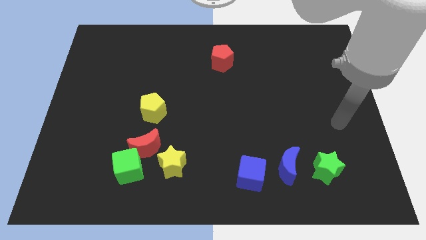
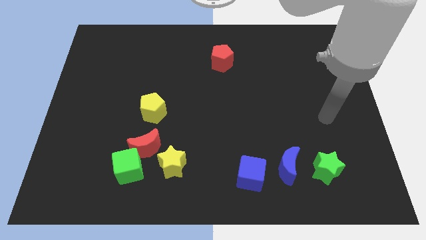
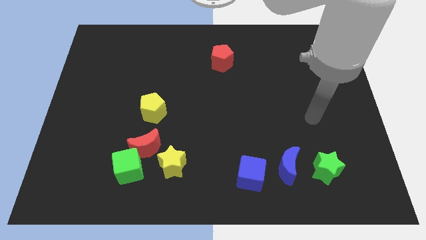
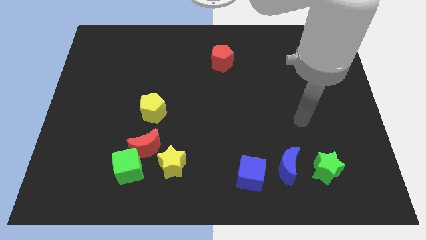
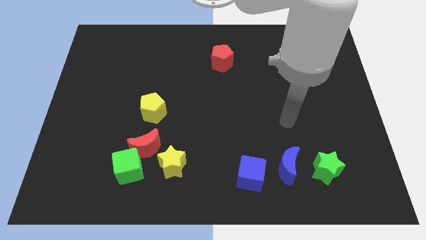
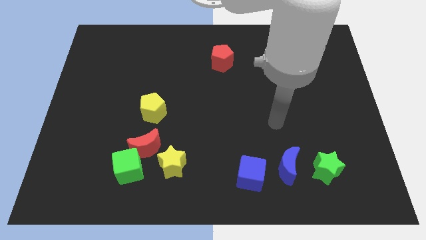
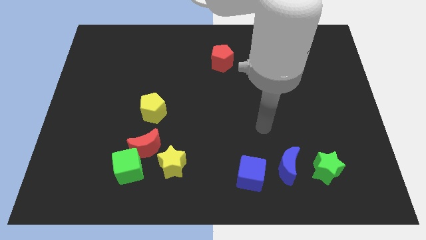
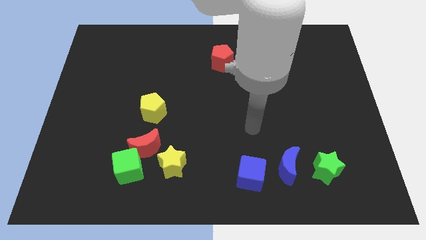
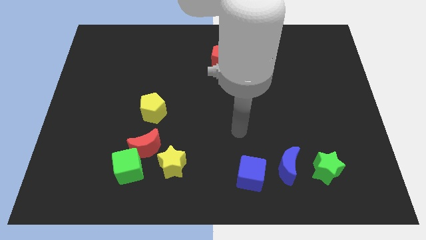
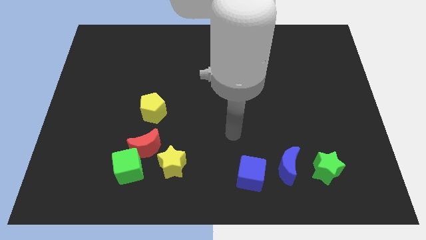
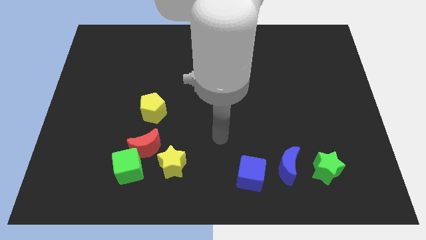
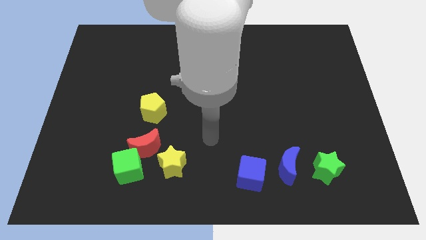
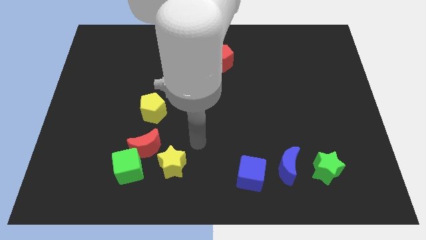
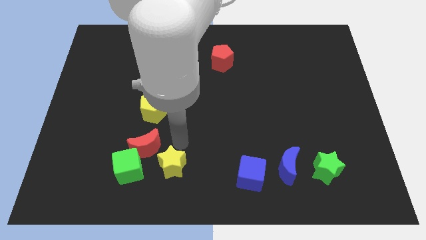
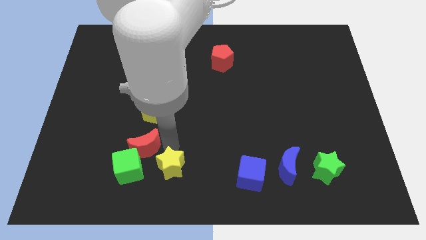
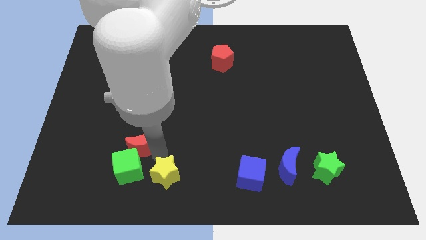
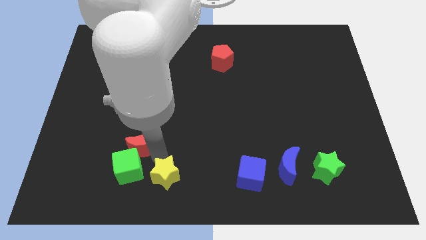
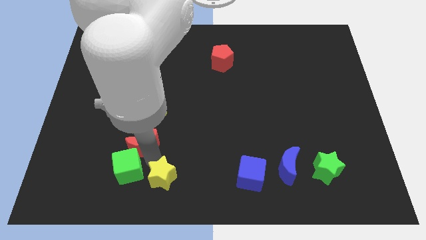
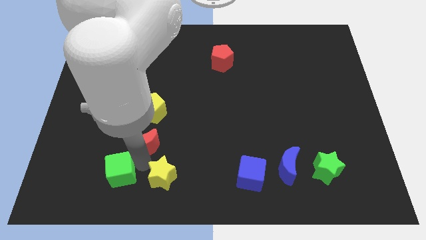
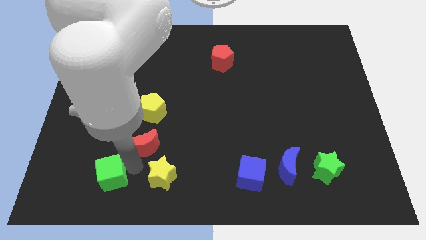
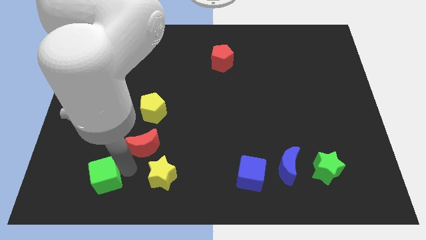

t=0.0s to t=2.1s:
separate the green cube from the red moon and yellow star

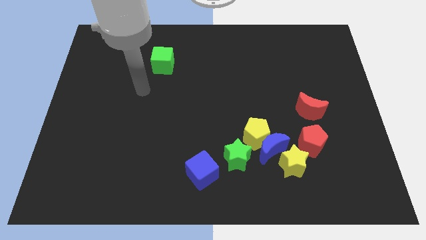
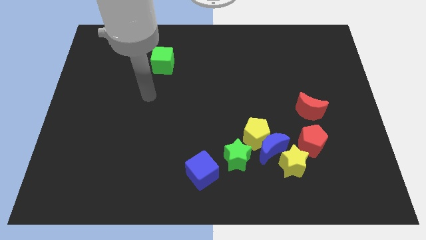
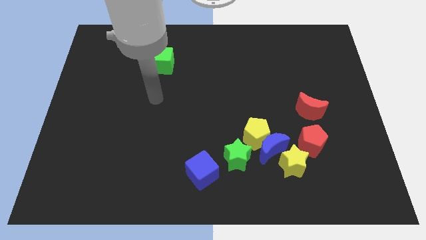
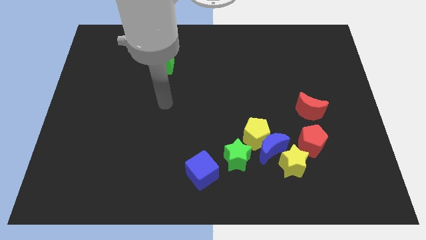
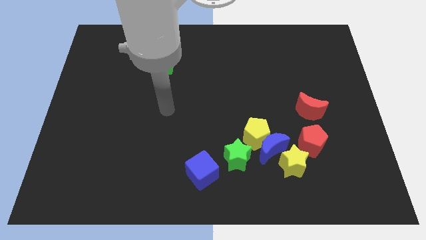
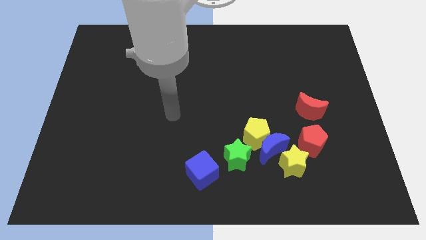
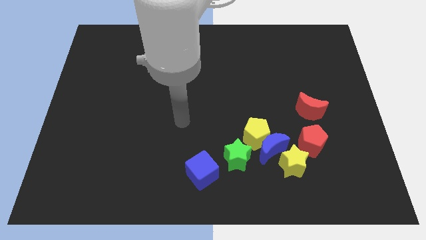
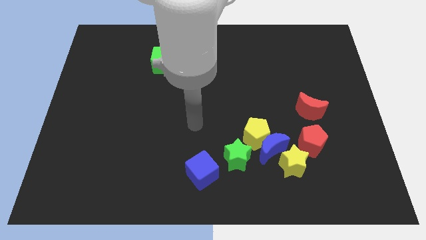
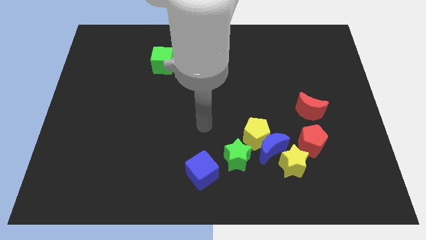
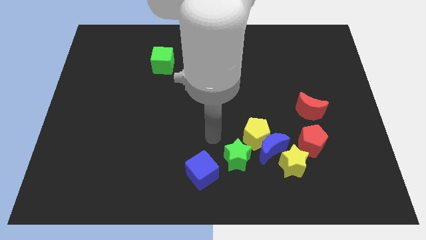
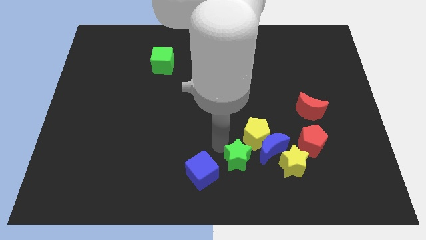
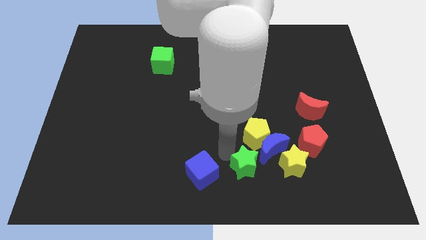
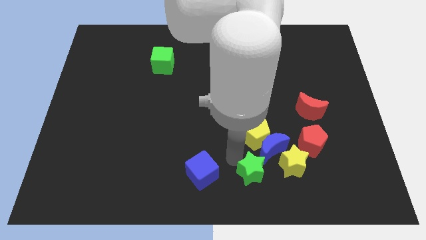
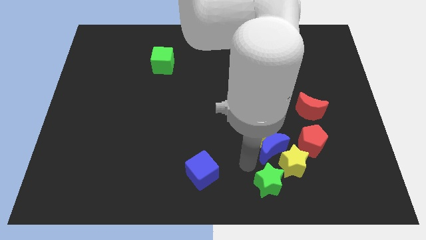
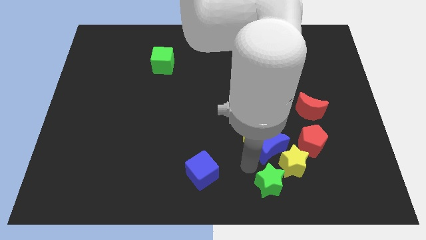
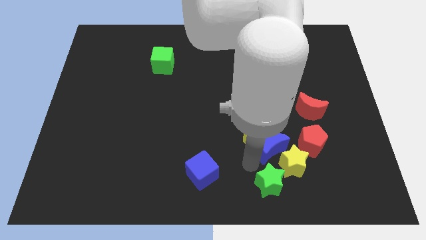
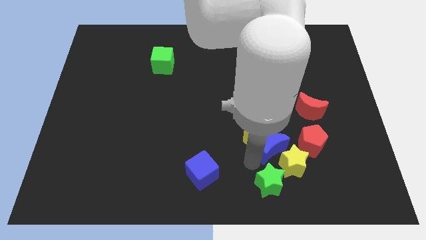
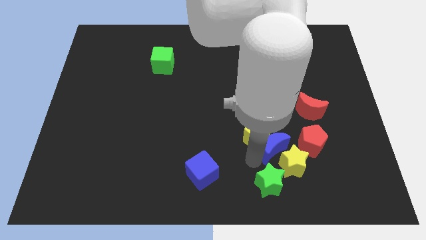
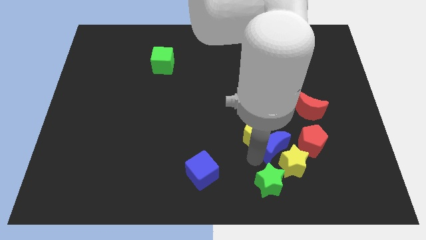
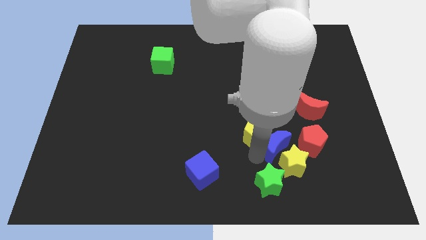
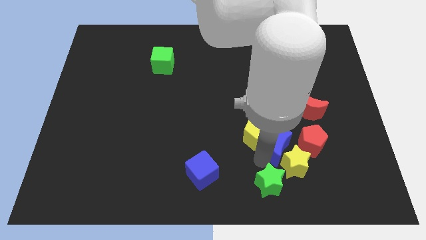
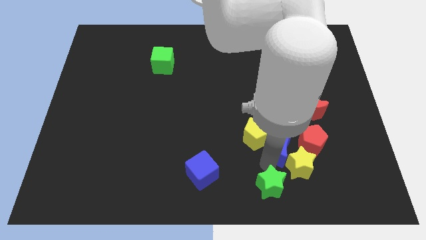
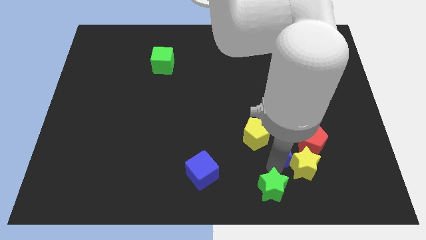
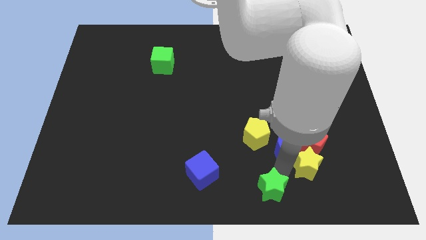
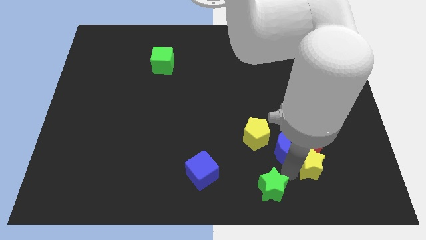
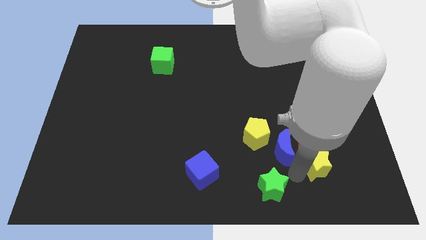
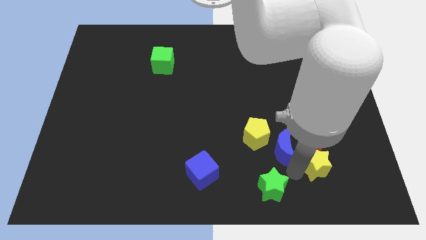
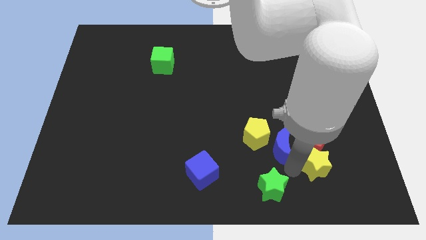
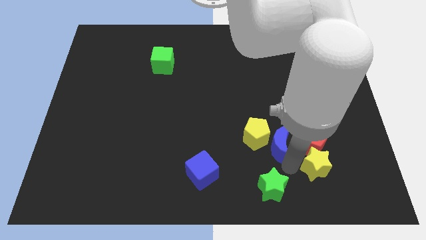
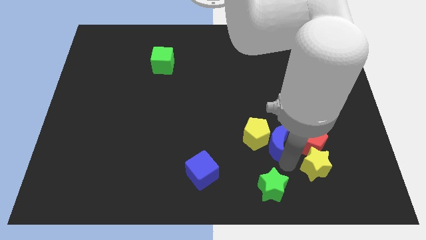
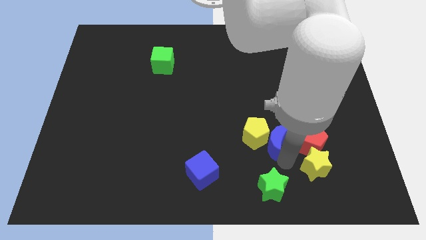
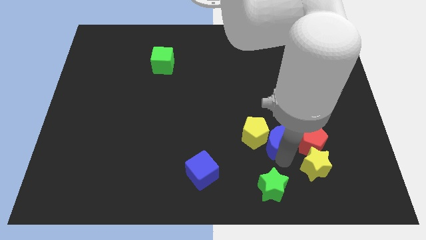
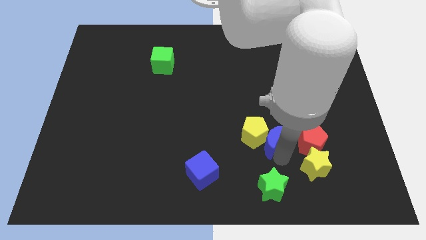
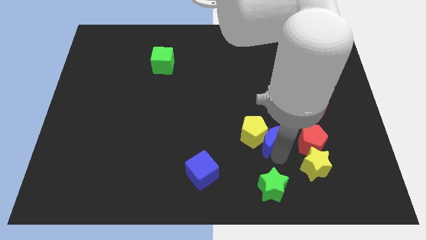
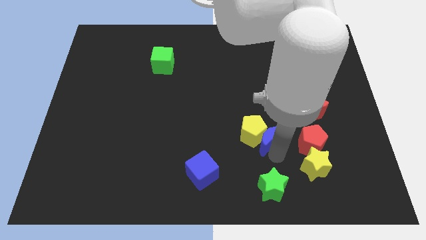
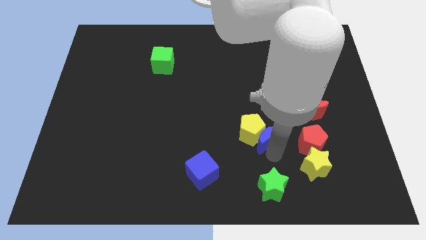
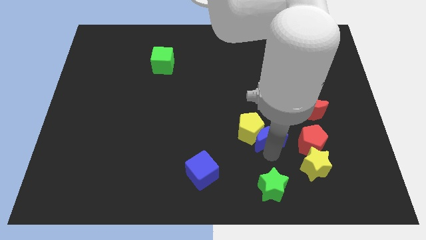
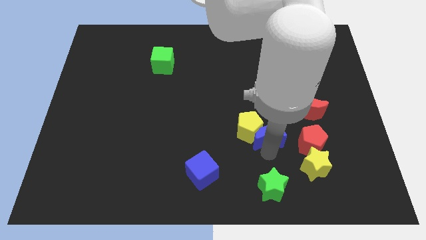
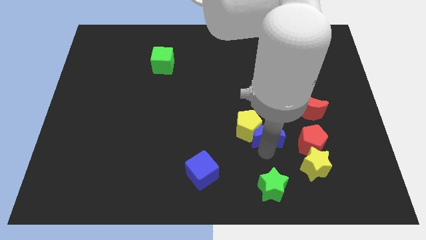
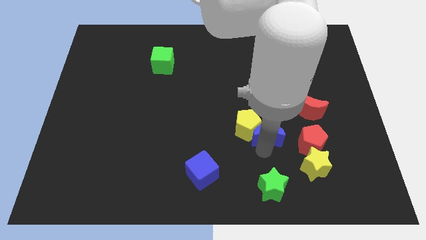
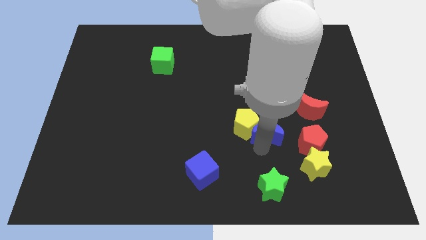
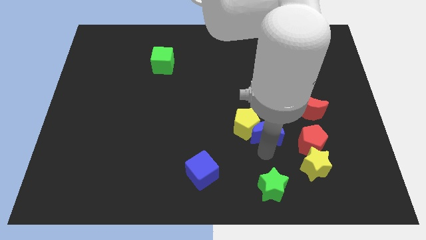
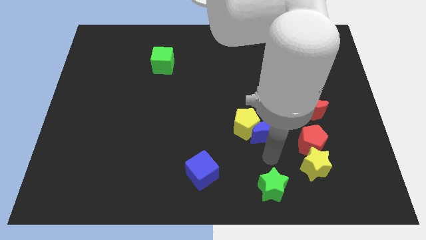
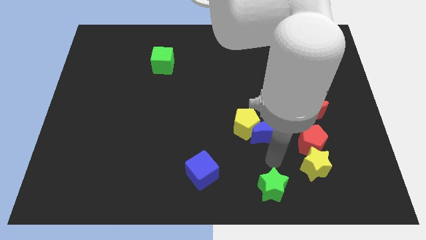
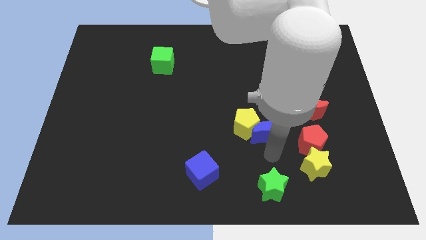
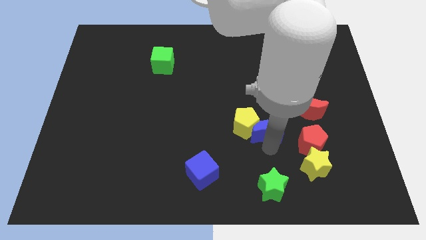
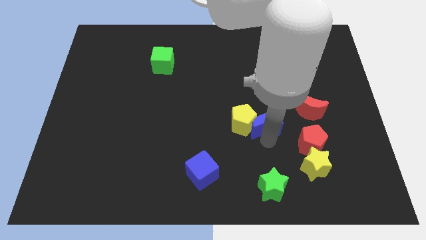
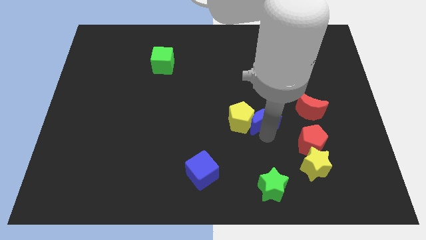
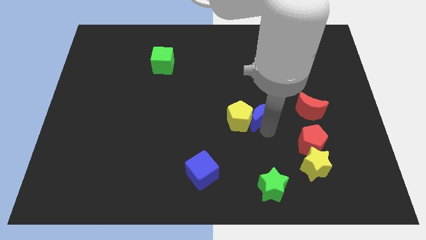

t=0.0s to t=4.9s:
move the blue moon away from the group of blocks

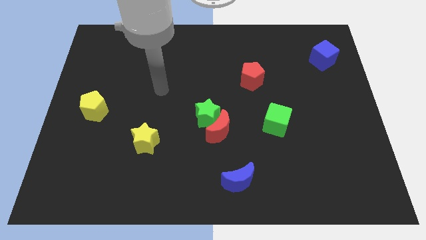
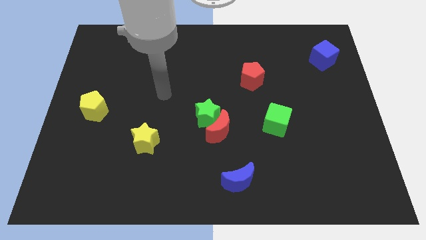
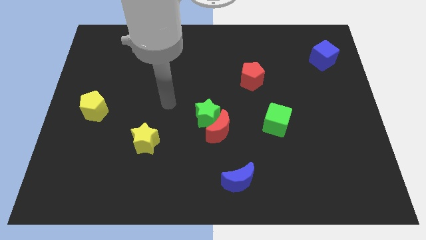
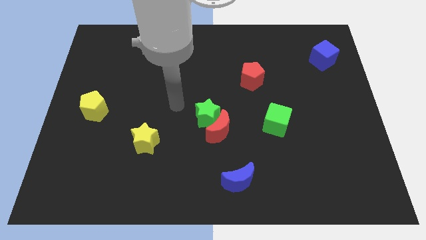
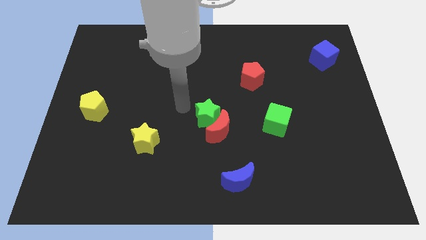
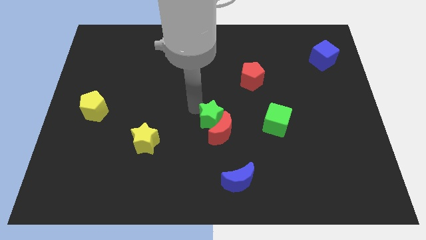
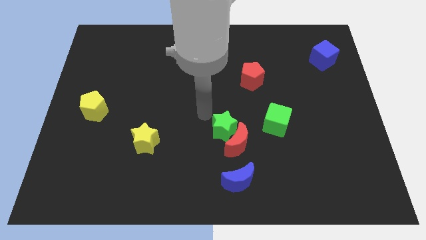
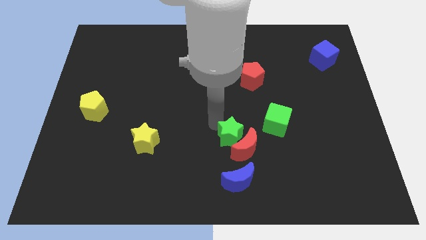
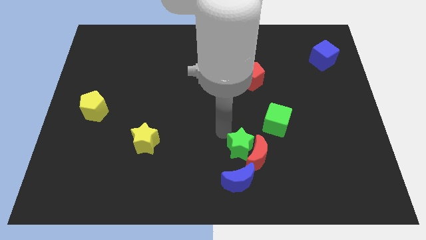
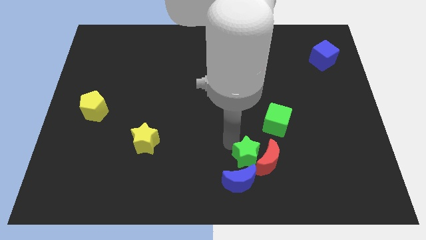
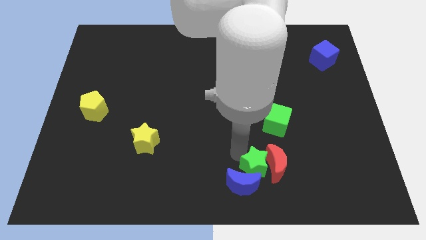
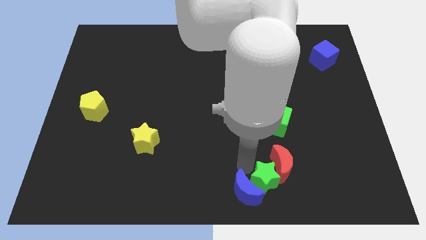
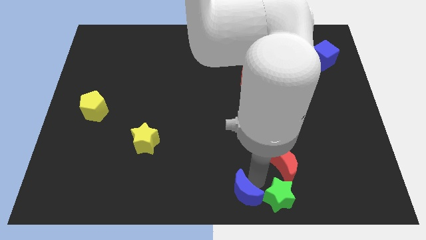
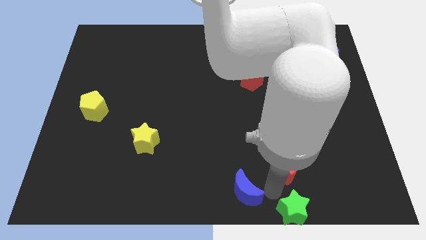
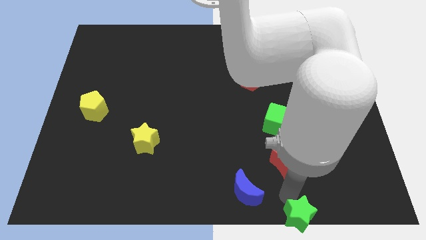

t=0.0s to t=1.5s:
move the red moon away from the green star

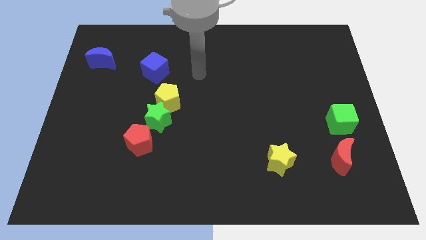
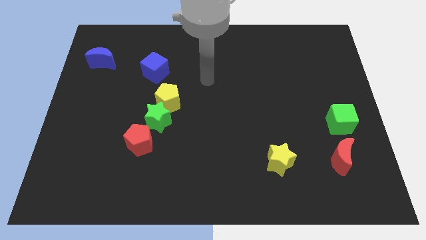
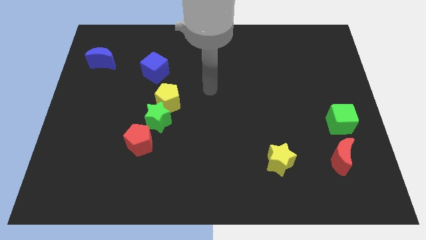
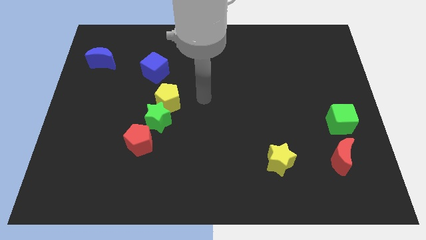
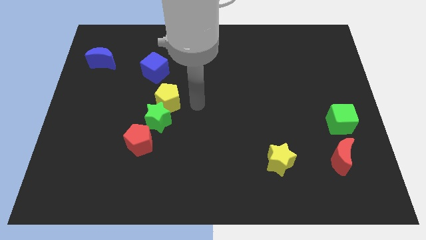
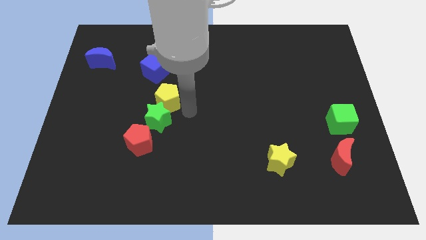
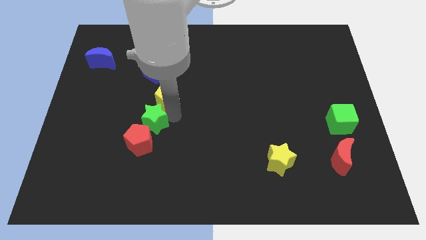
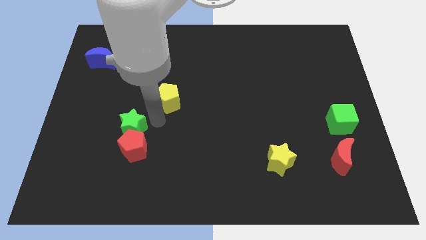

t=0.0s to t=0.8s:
pull the yellow pentagon apart from the green star
